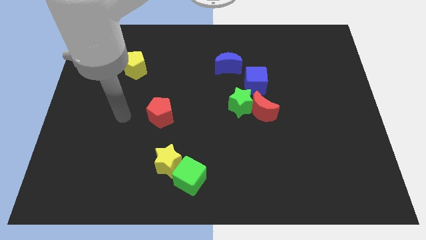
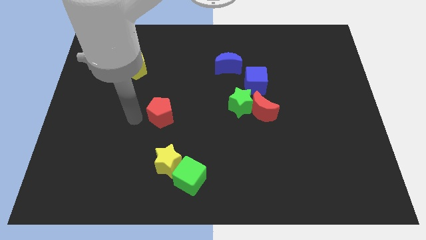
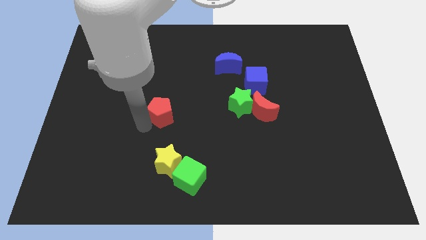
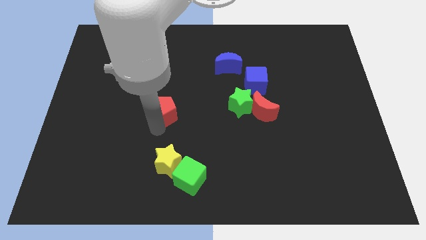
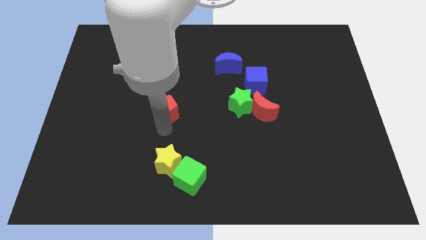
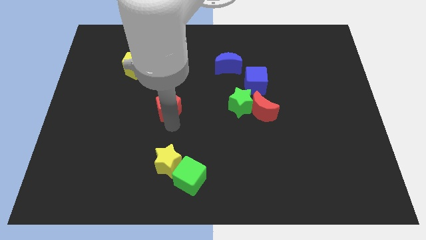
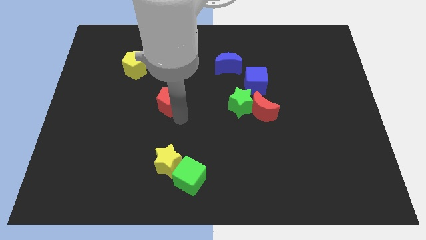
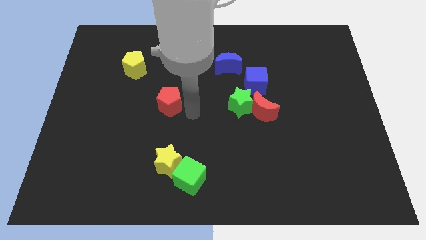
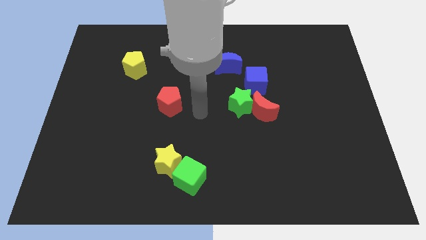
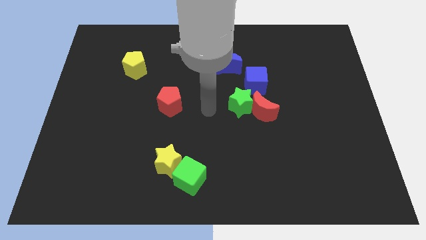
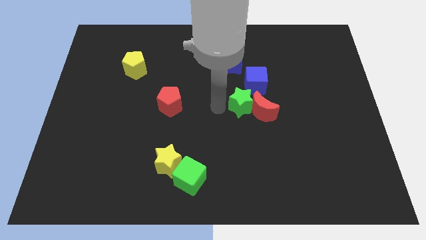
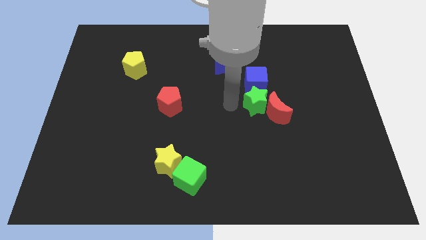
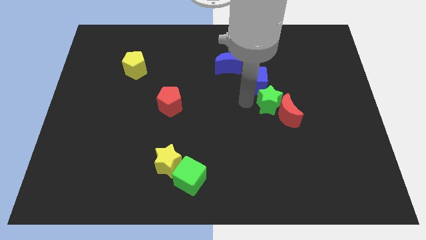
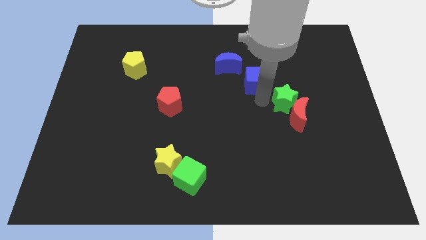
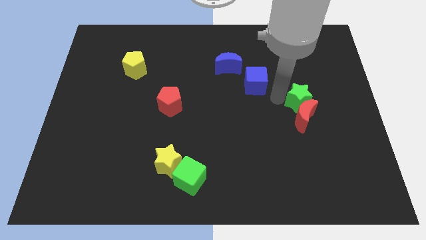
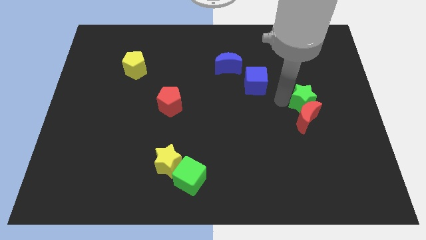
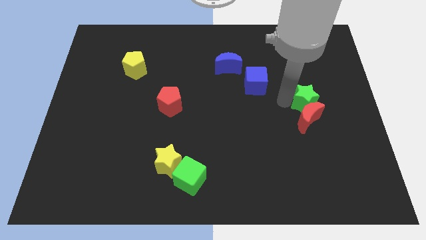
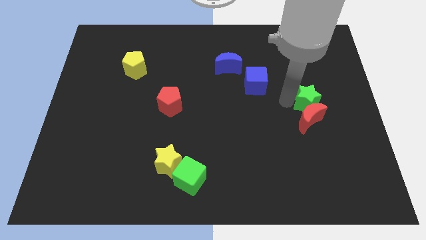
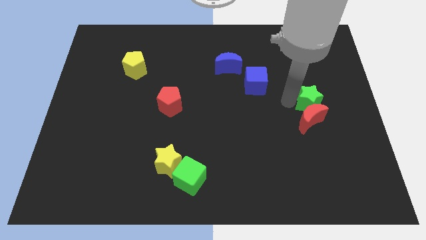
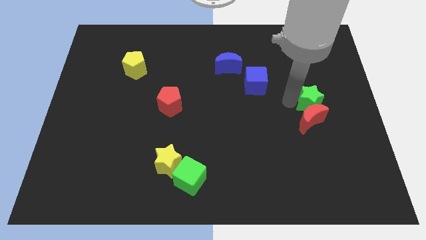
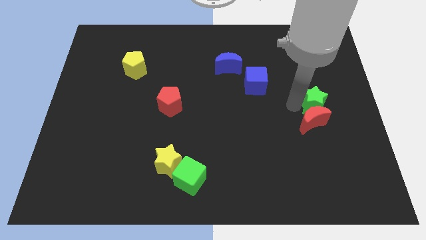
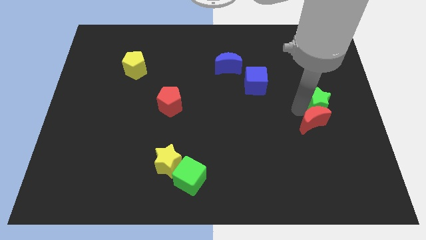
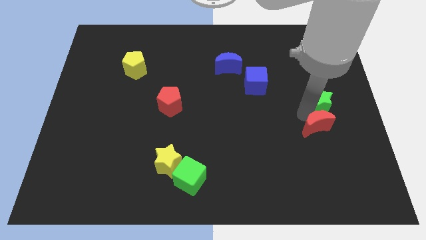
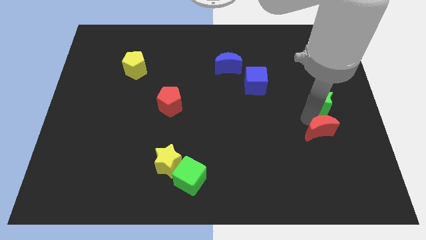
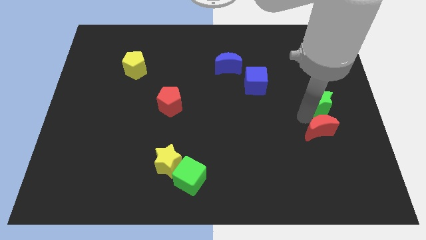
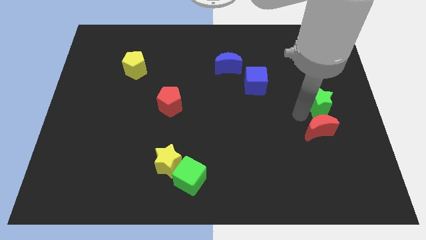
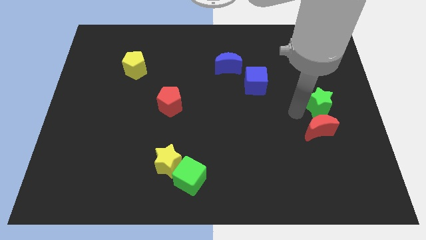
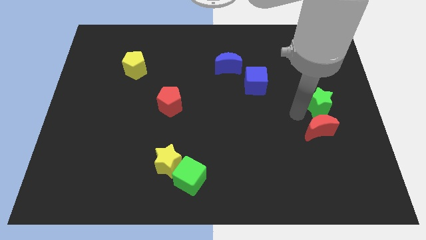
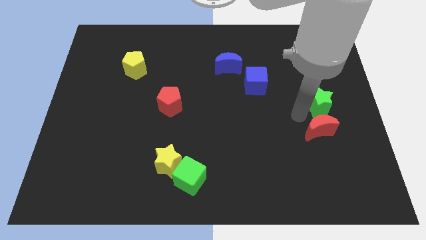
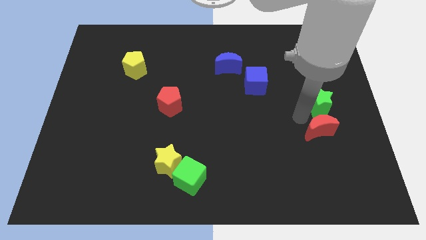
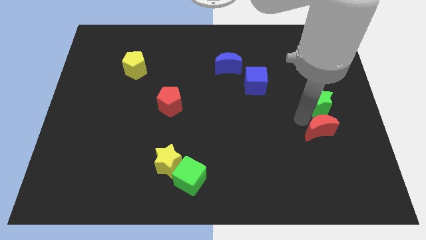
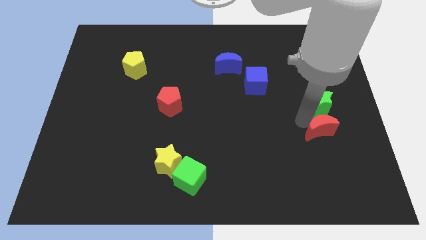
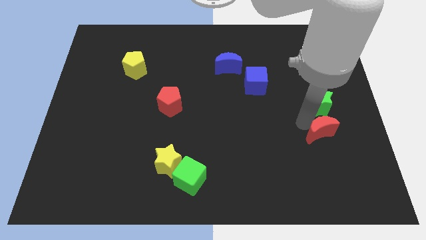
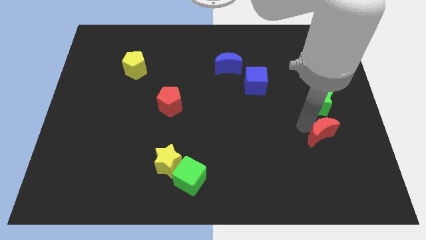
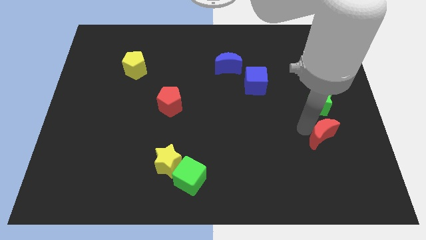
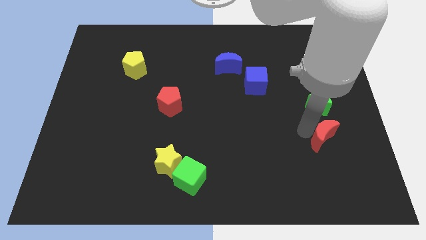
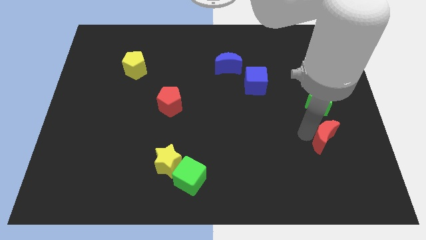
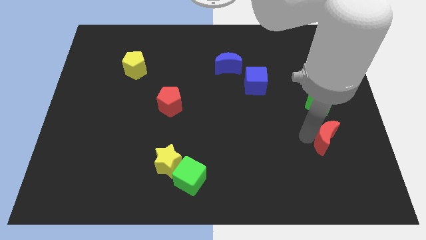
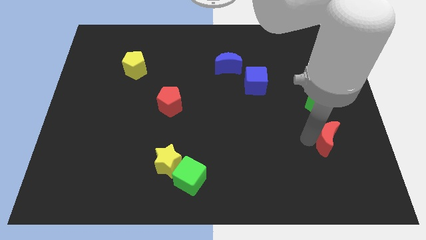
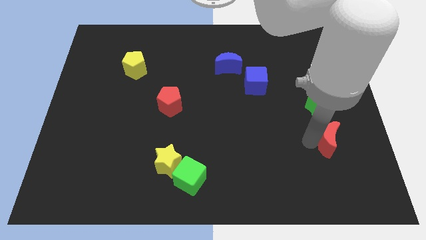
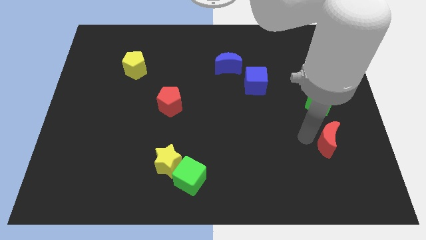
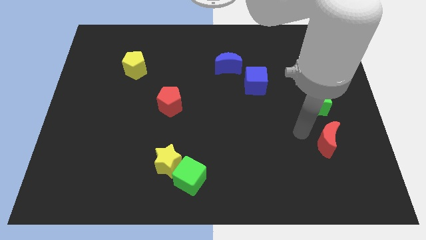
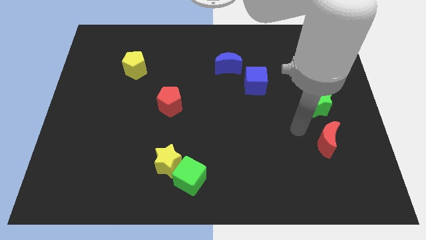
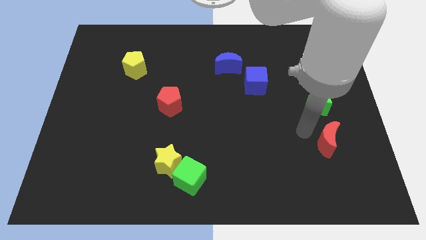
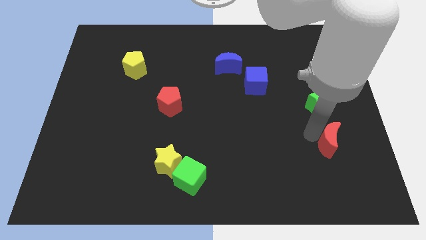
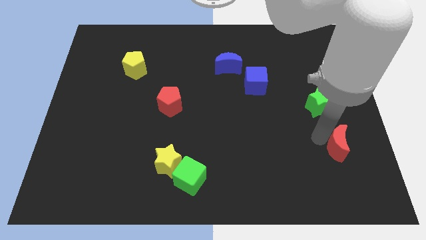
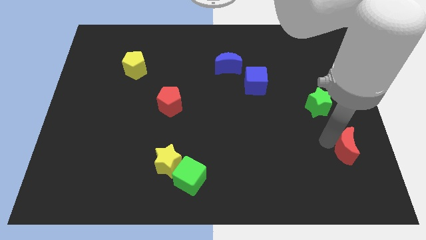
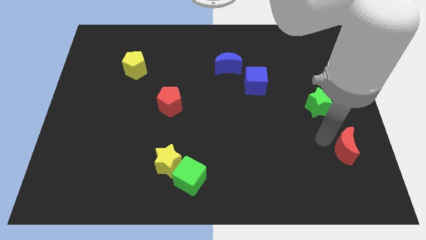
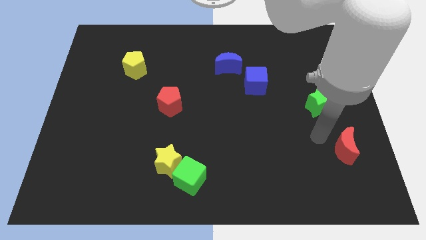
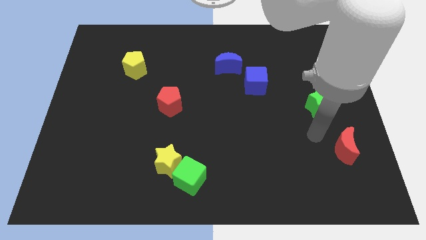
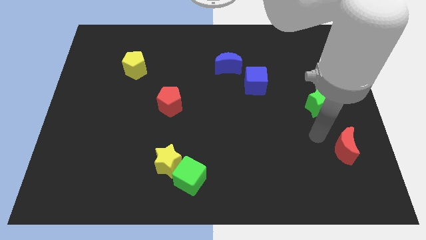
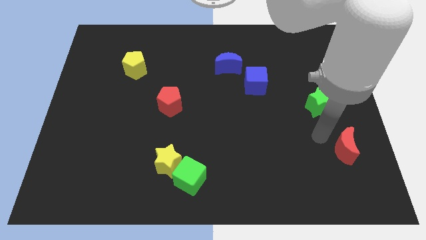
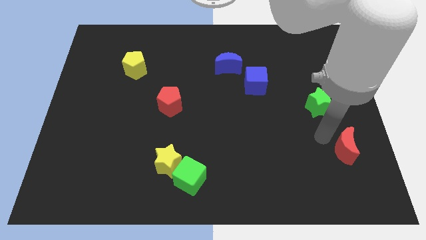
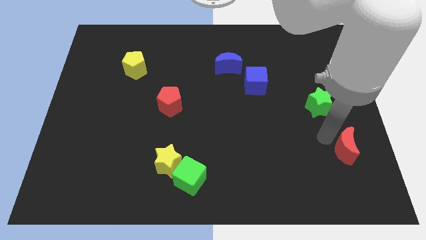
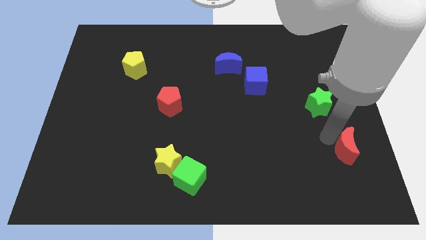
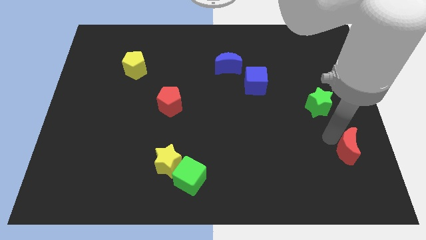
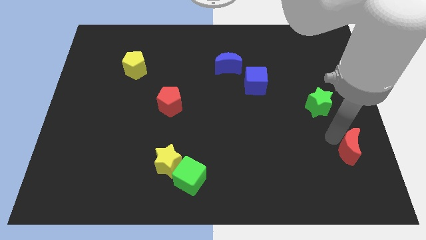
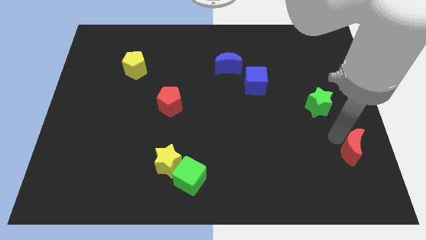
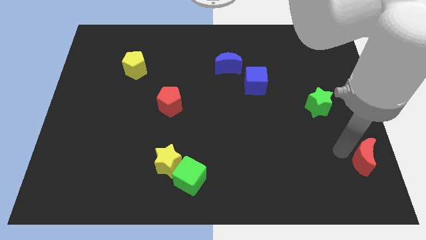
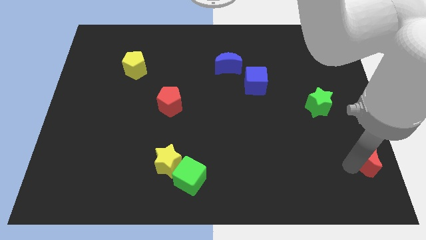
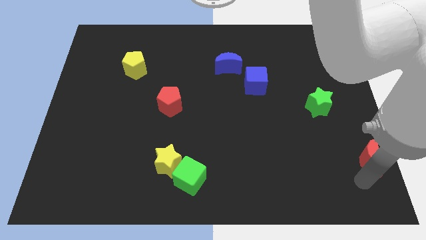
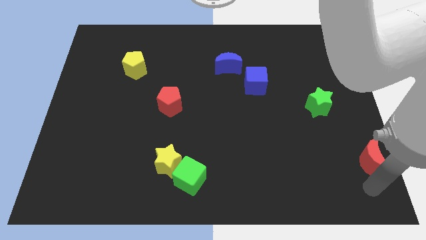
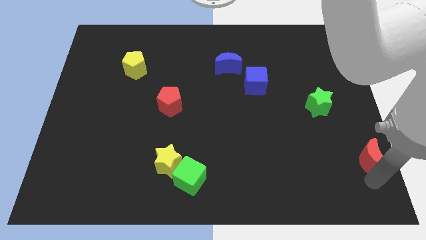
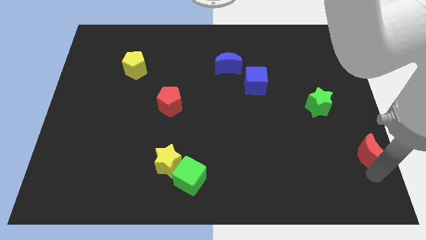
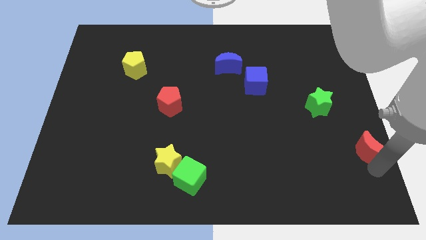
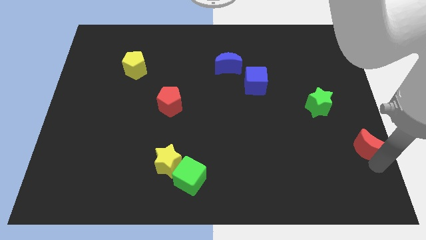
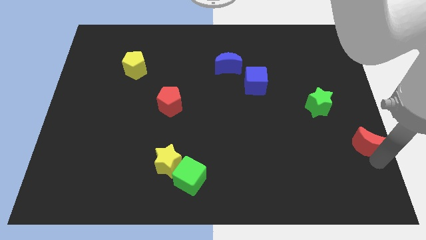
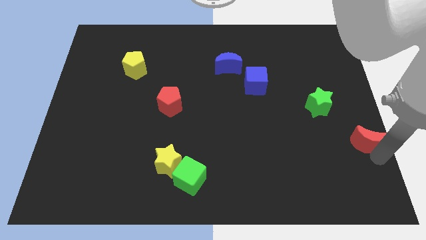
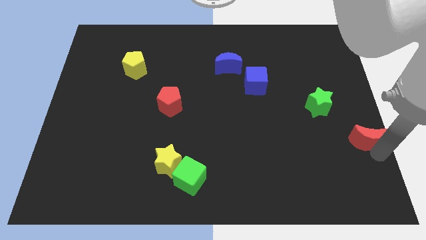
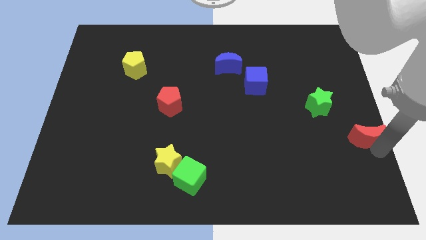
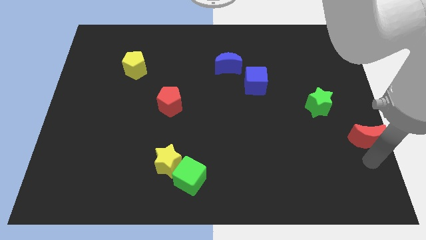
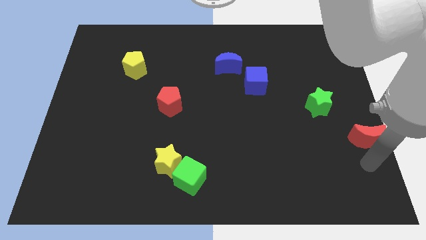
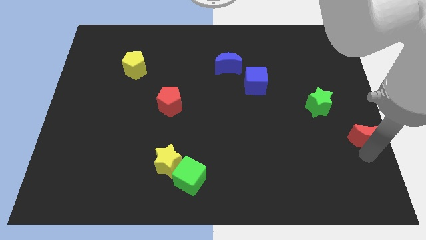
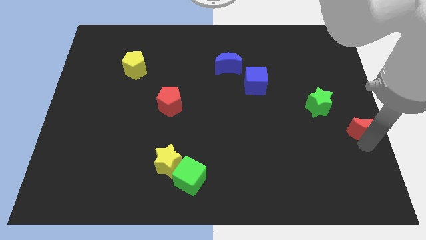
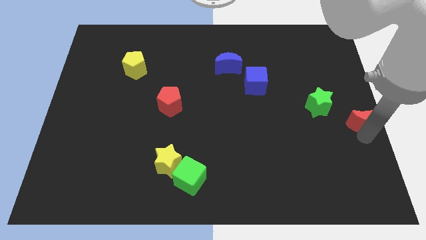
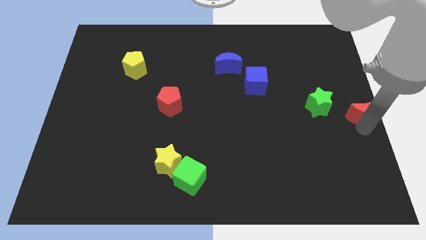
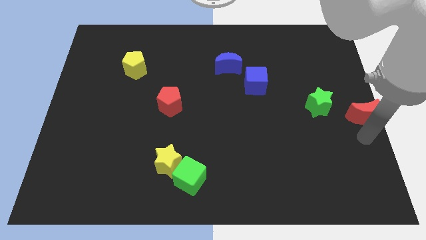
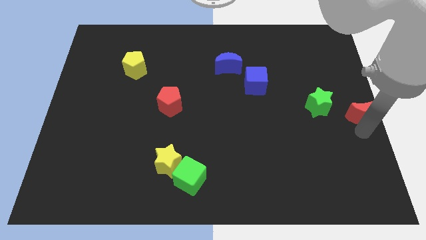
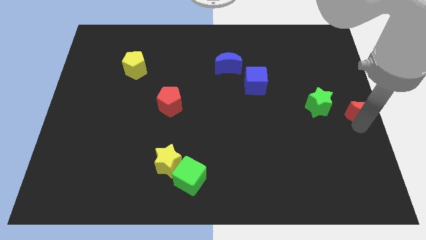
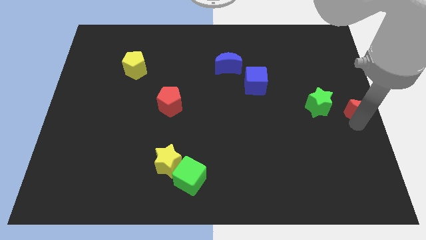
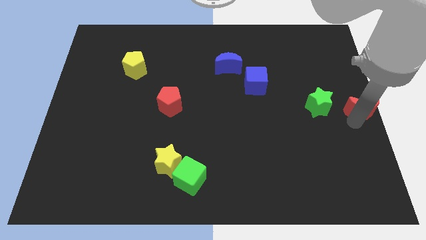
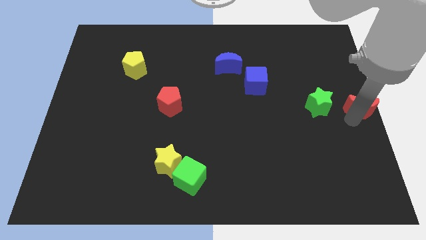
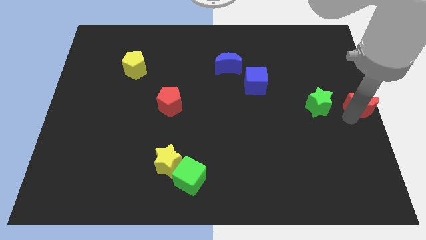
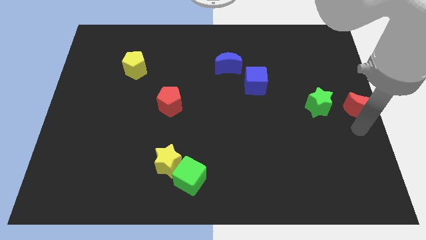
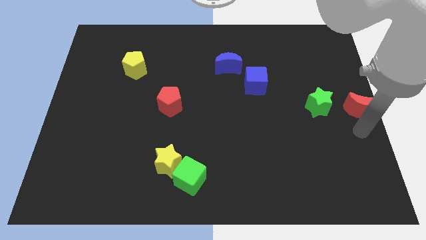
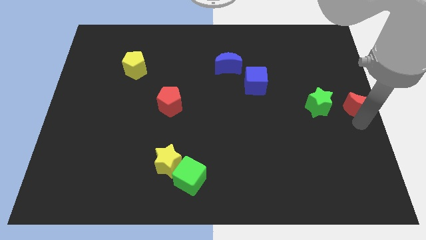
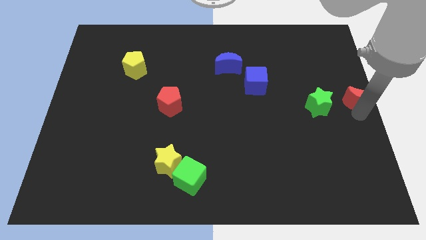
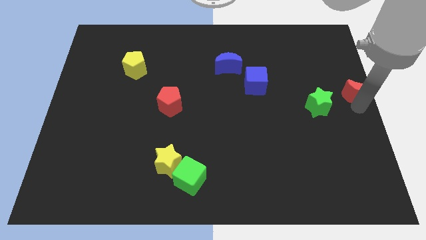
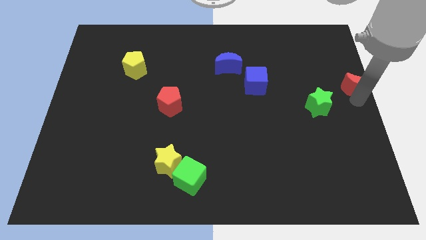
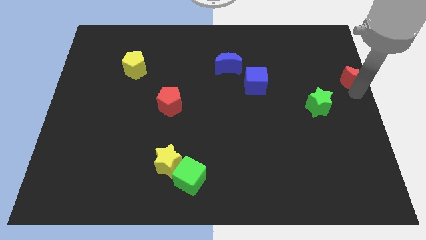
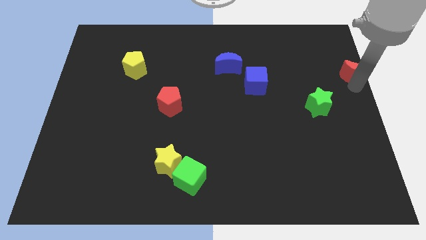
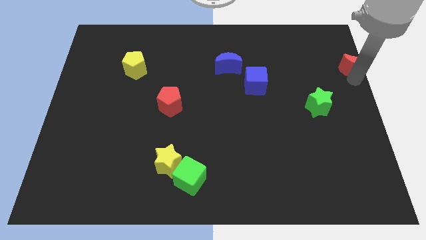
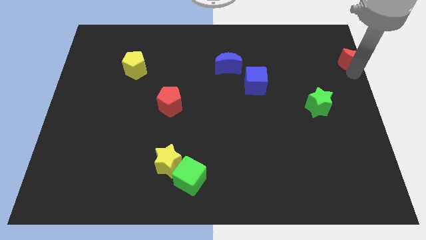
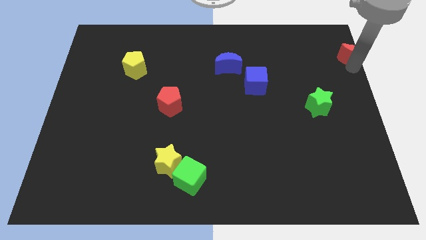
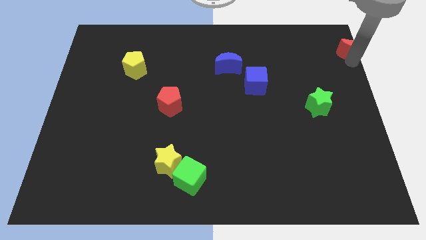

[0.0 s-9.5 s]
put the red moon to the top right corner
